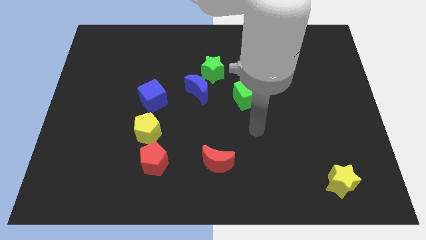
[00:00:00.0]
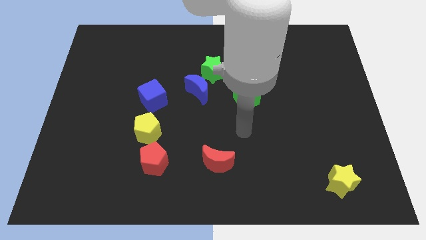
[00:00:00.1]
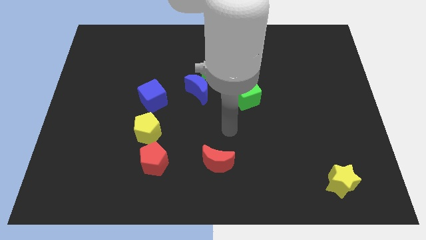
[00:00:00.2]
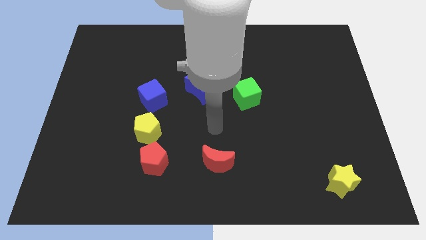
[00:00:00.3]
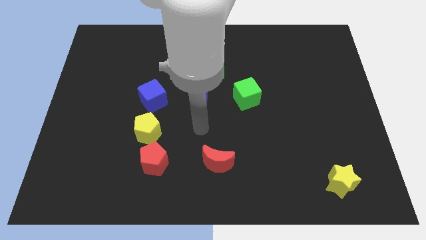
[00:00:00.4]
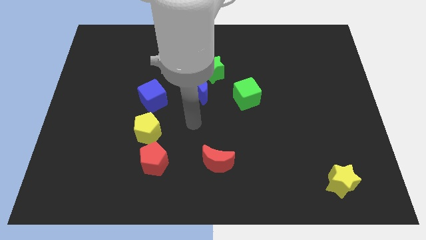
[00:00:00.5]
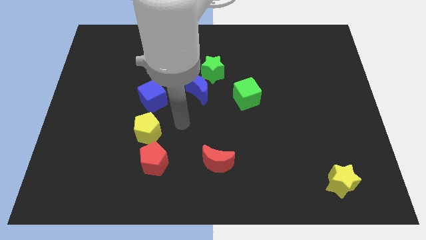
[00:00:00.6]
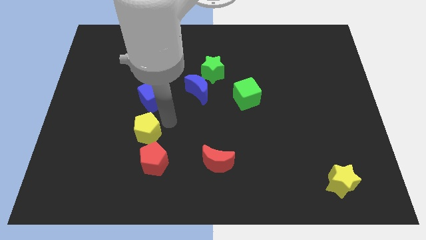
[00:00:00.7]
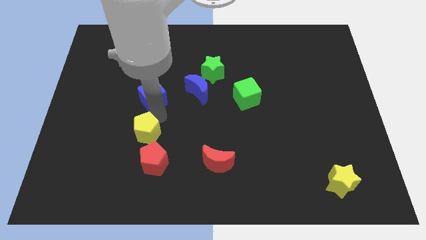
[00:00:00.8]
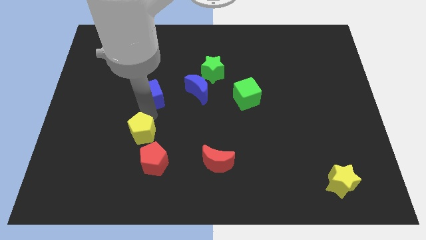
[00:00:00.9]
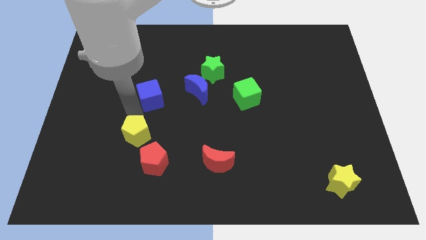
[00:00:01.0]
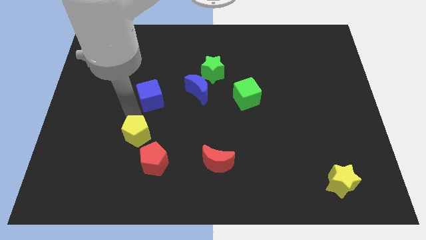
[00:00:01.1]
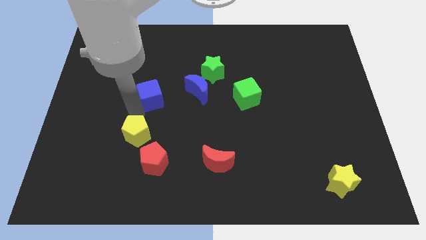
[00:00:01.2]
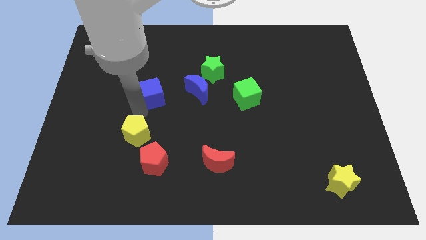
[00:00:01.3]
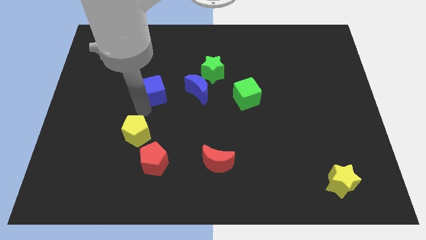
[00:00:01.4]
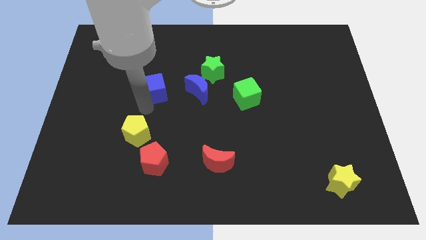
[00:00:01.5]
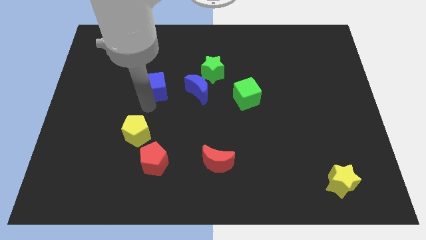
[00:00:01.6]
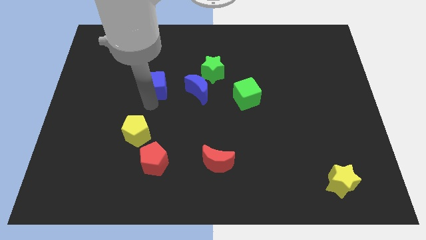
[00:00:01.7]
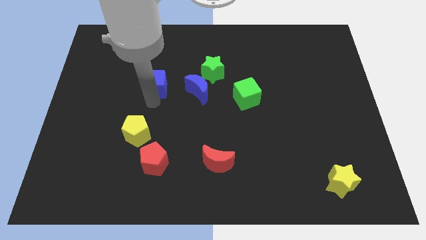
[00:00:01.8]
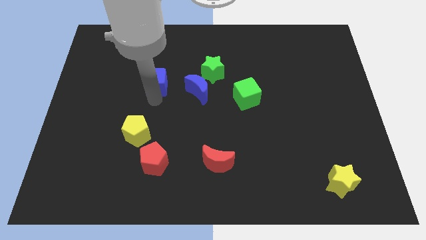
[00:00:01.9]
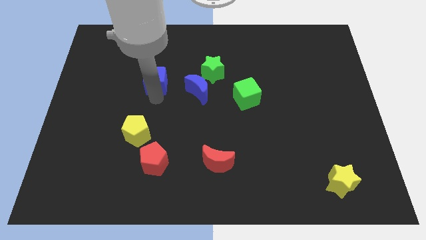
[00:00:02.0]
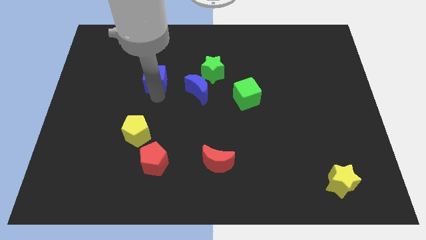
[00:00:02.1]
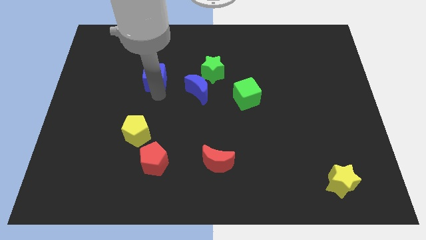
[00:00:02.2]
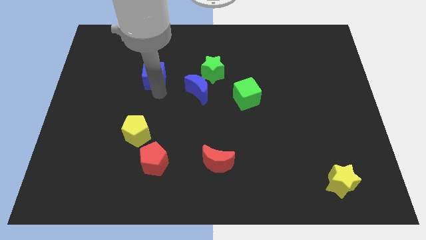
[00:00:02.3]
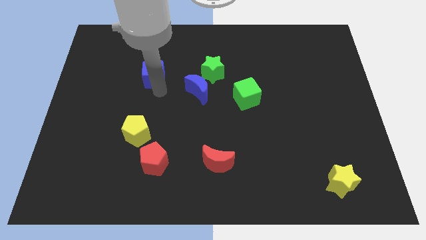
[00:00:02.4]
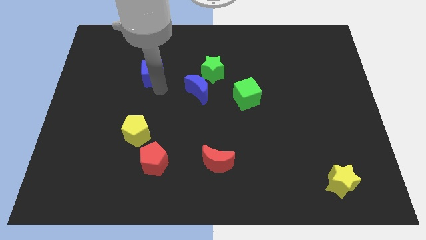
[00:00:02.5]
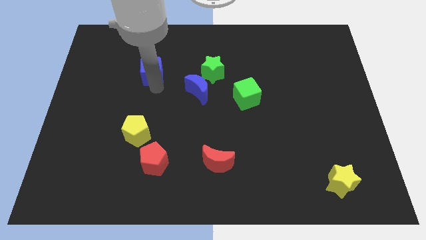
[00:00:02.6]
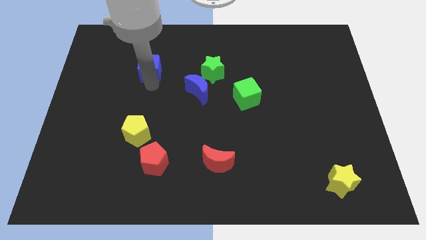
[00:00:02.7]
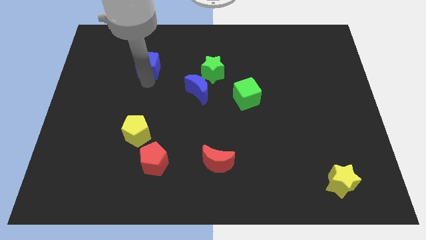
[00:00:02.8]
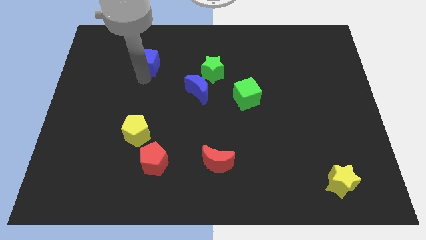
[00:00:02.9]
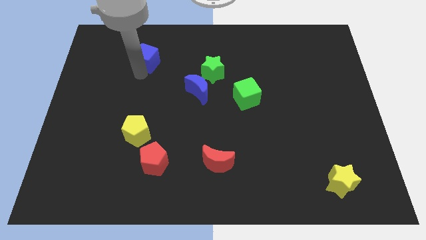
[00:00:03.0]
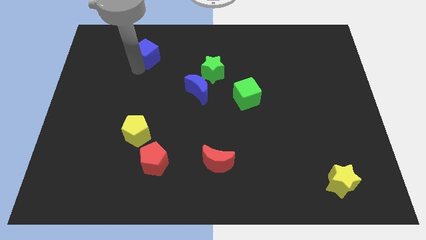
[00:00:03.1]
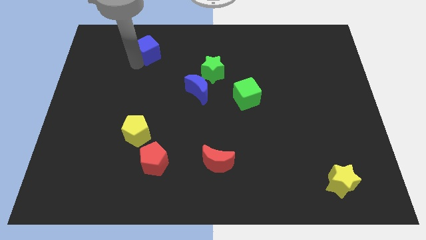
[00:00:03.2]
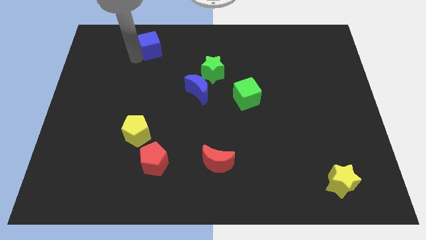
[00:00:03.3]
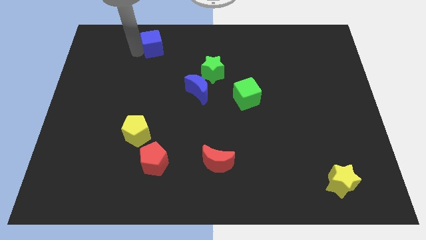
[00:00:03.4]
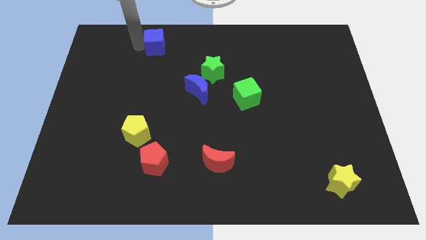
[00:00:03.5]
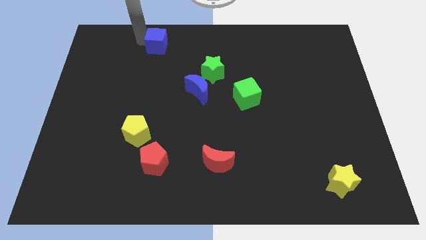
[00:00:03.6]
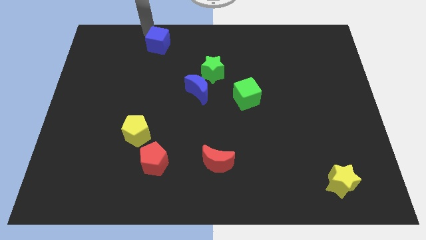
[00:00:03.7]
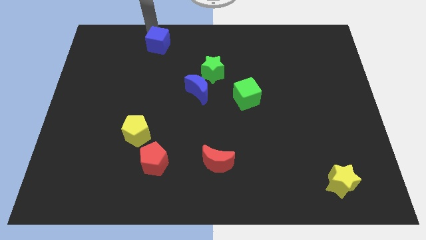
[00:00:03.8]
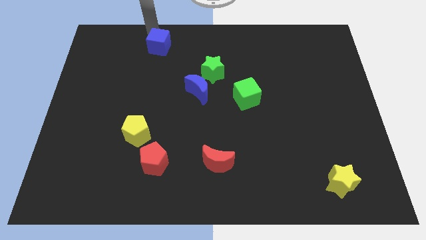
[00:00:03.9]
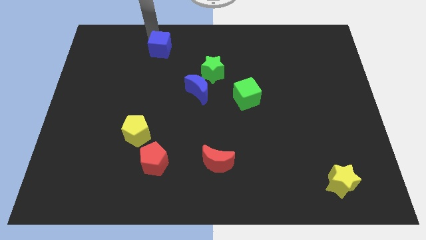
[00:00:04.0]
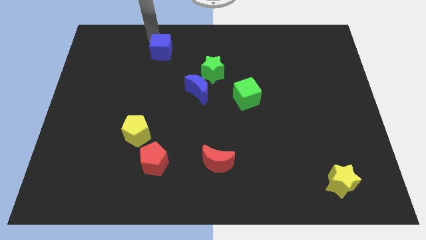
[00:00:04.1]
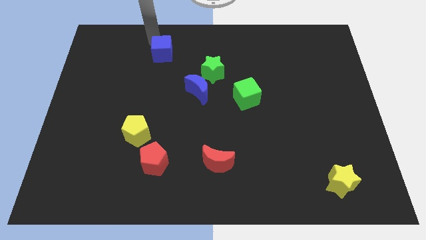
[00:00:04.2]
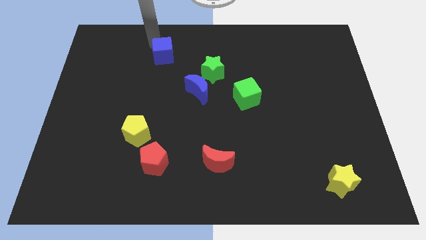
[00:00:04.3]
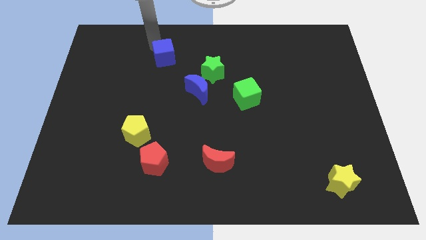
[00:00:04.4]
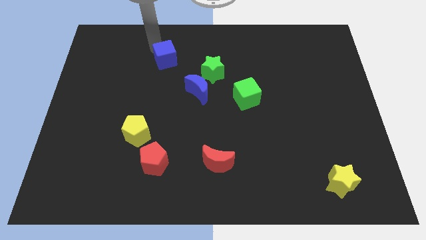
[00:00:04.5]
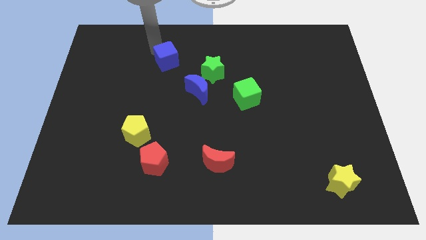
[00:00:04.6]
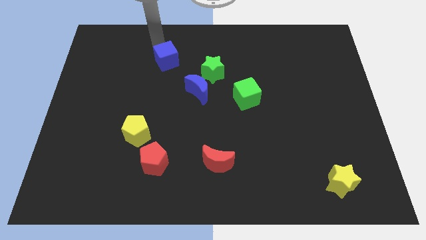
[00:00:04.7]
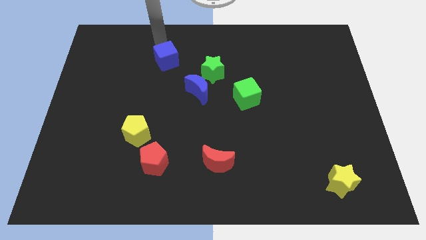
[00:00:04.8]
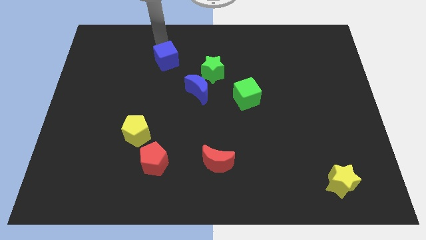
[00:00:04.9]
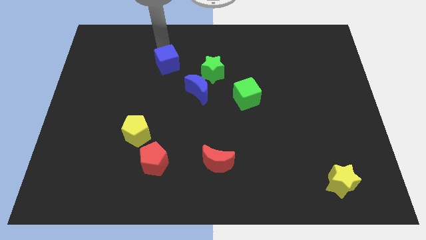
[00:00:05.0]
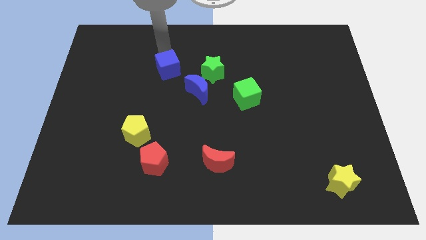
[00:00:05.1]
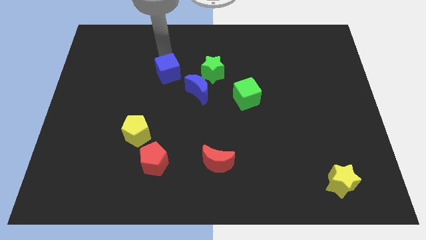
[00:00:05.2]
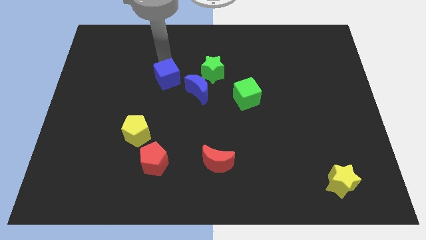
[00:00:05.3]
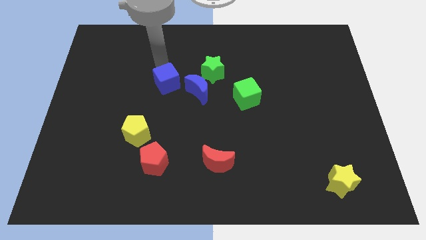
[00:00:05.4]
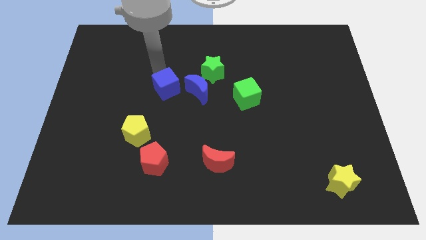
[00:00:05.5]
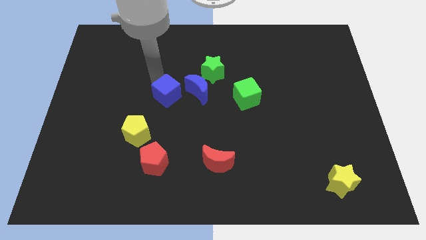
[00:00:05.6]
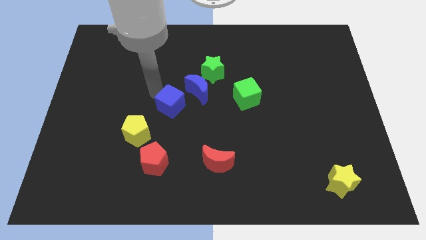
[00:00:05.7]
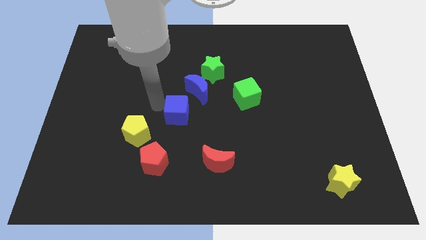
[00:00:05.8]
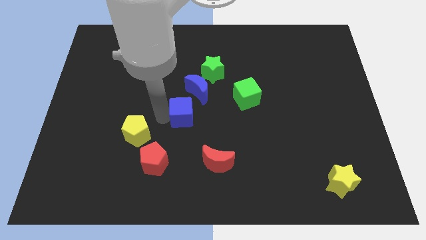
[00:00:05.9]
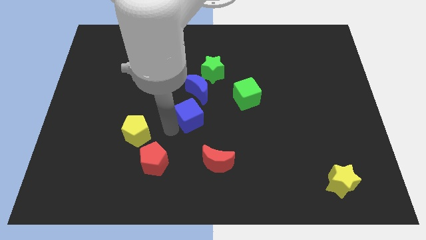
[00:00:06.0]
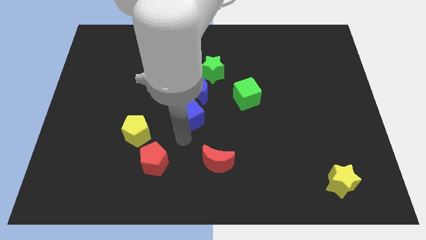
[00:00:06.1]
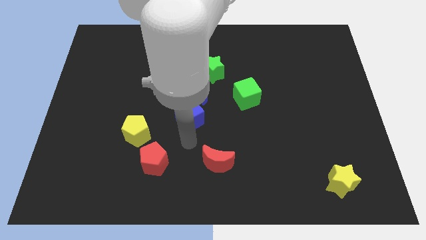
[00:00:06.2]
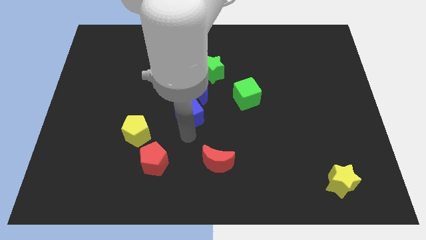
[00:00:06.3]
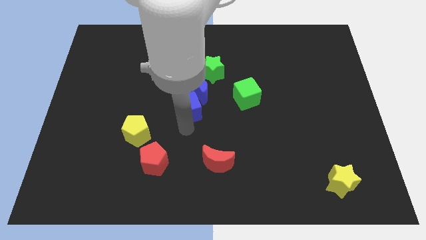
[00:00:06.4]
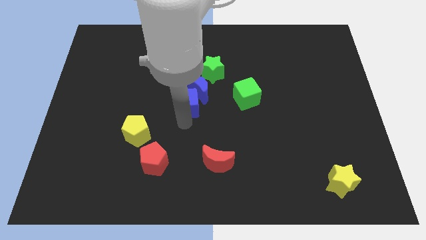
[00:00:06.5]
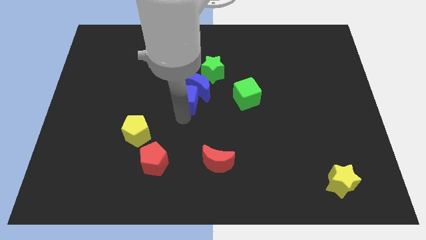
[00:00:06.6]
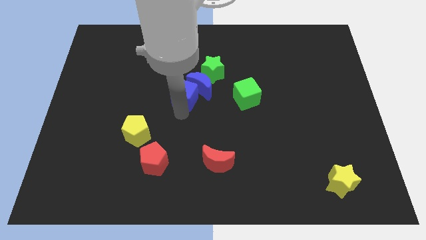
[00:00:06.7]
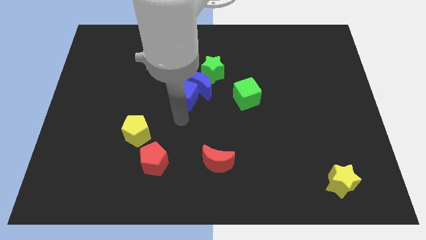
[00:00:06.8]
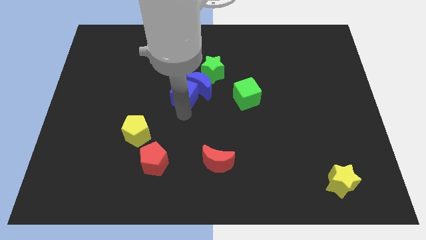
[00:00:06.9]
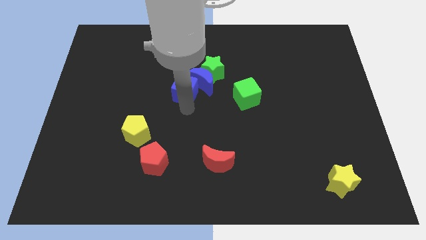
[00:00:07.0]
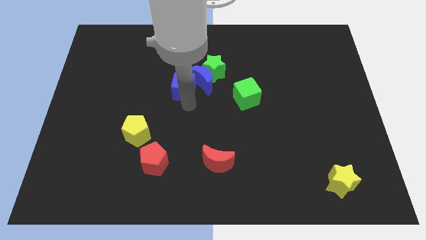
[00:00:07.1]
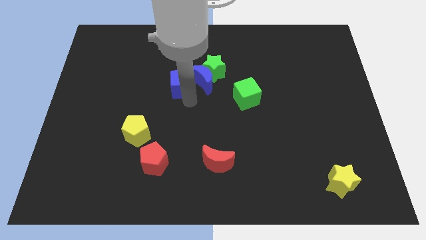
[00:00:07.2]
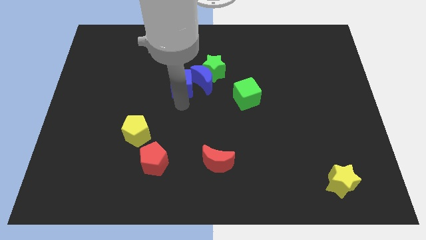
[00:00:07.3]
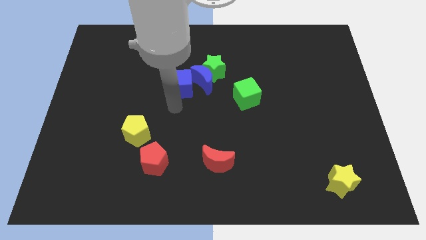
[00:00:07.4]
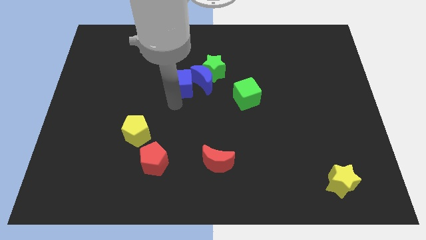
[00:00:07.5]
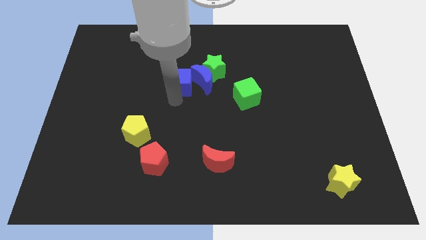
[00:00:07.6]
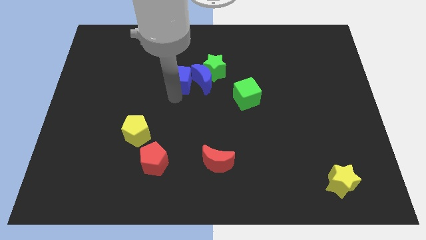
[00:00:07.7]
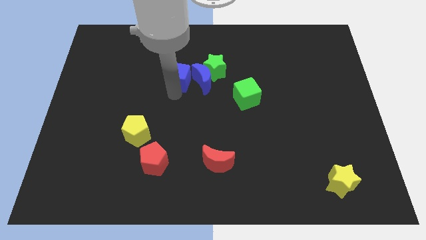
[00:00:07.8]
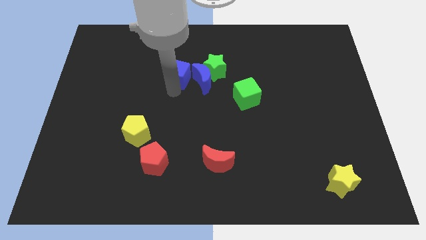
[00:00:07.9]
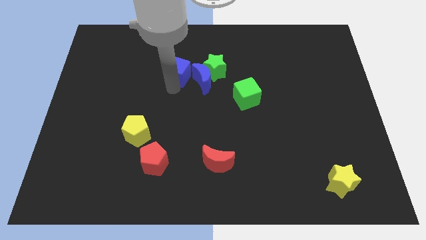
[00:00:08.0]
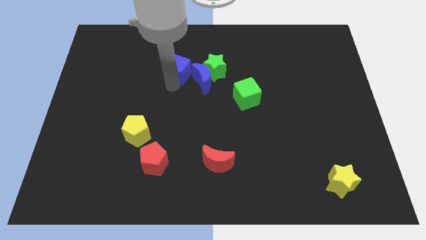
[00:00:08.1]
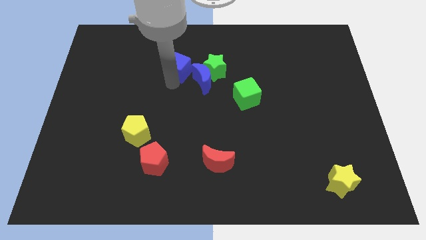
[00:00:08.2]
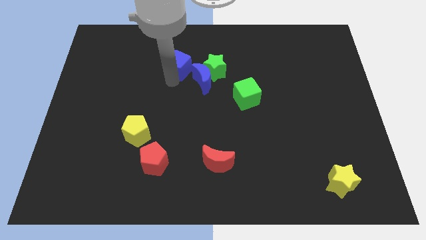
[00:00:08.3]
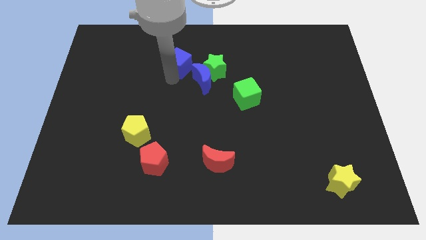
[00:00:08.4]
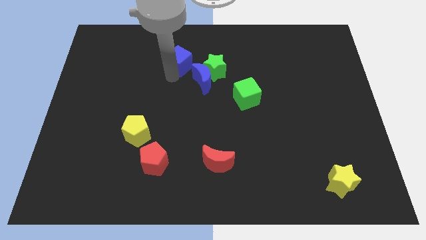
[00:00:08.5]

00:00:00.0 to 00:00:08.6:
move the blue cube to the top left side of the green star

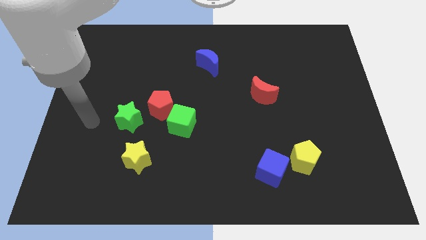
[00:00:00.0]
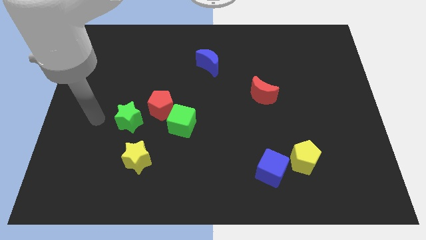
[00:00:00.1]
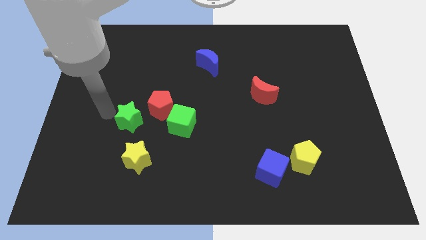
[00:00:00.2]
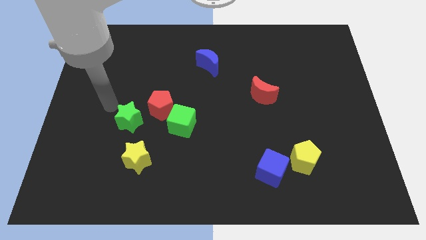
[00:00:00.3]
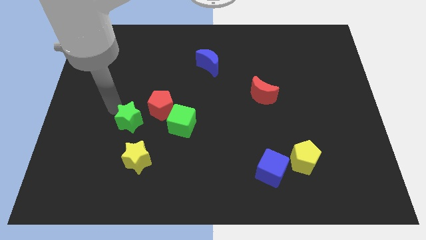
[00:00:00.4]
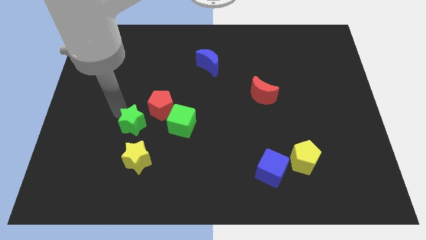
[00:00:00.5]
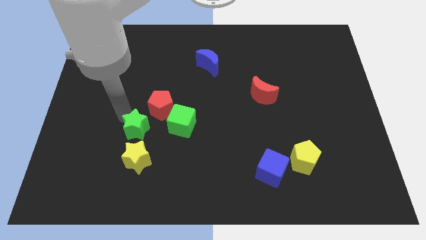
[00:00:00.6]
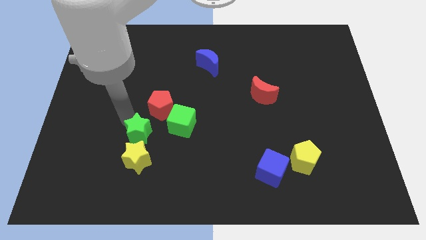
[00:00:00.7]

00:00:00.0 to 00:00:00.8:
put the green star to the bottom of the red pentagon
